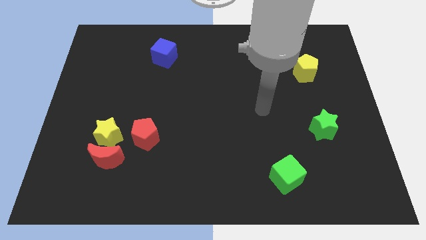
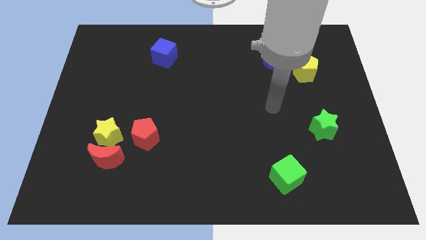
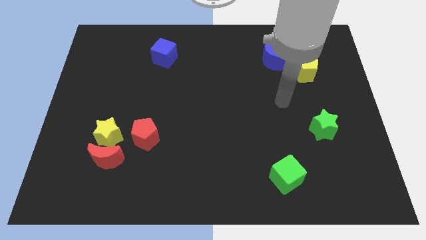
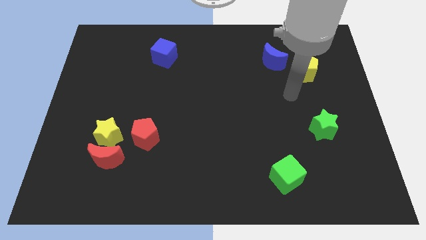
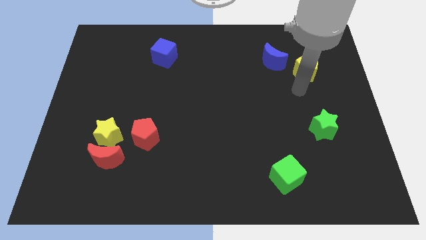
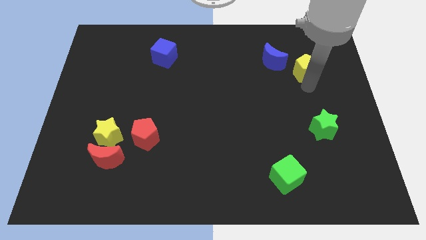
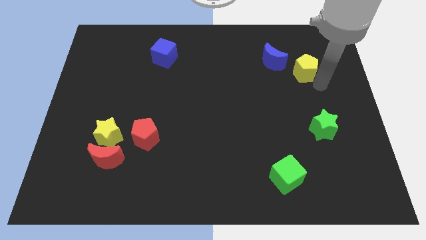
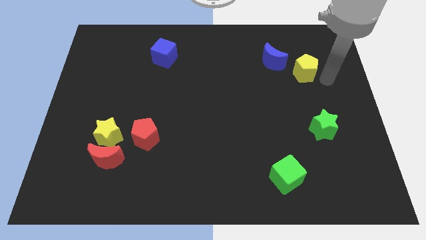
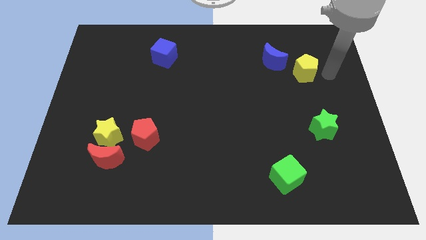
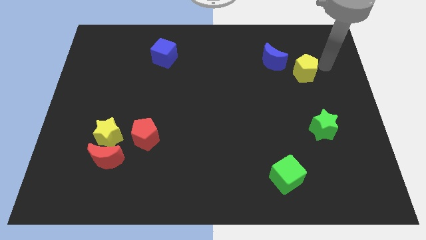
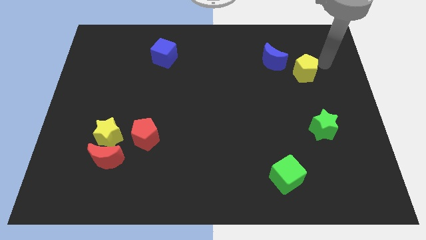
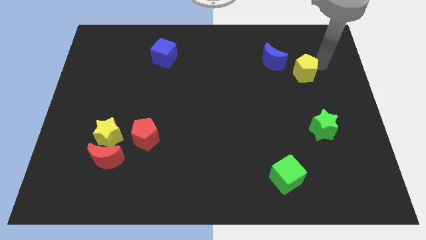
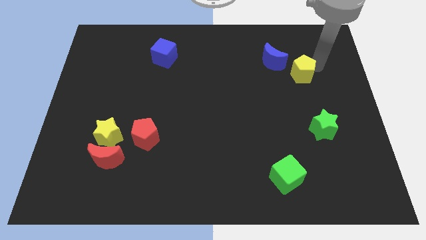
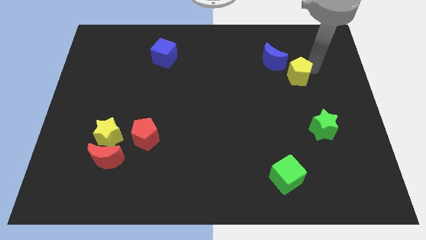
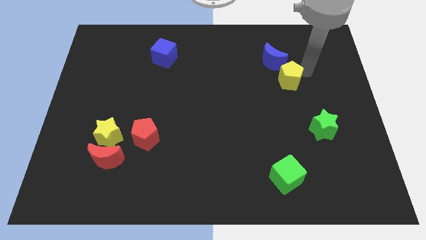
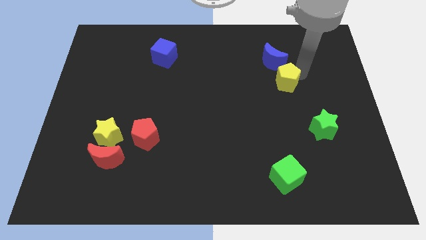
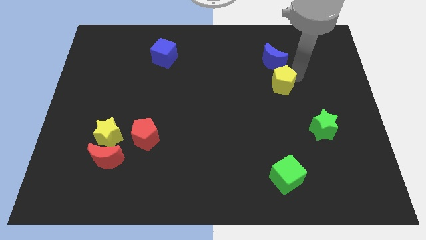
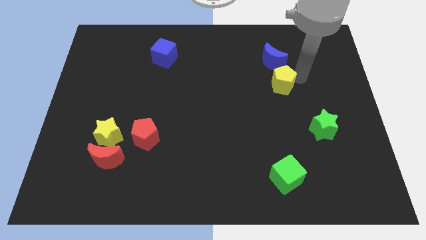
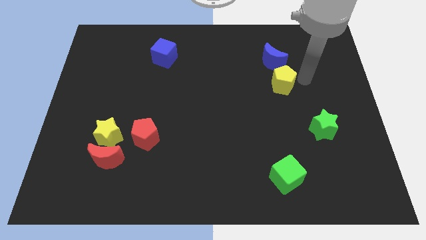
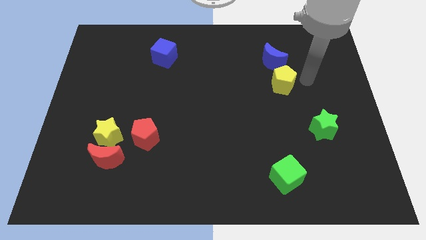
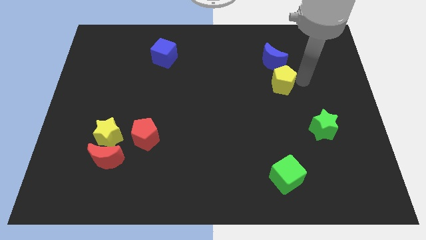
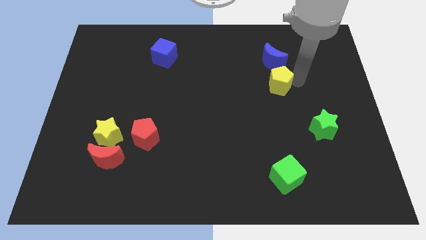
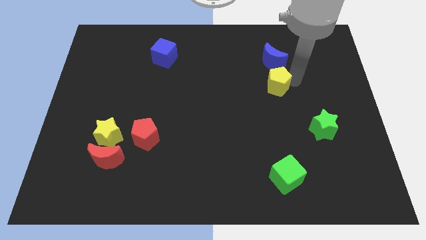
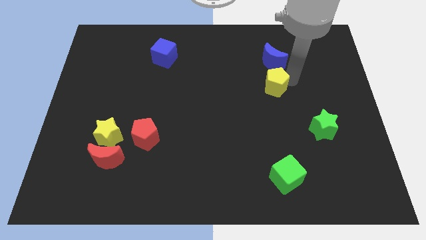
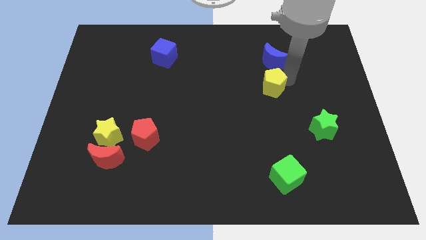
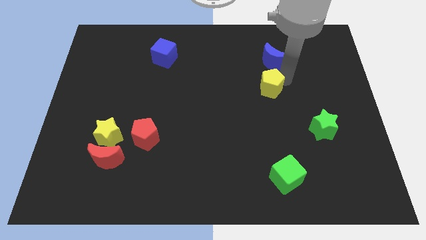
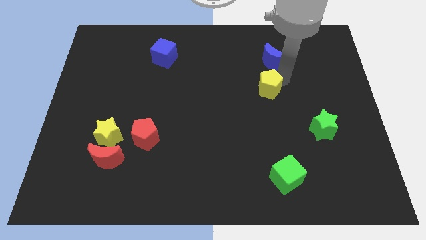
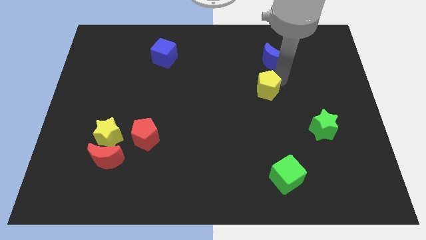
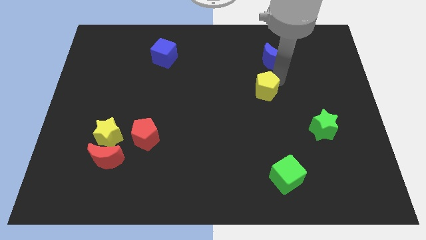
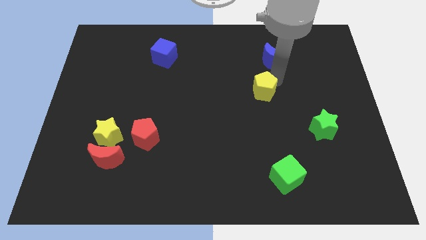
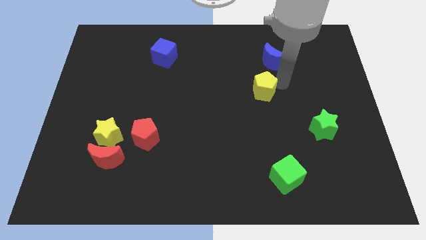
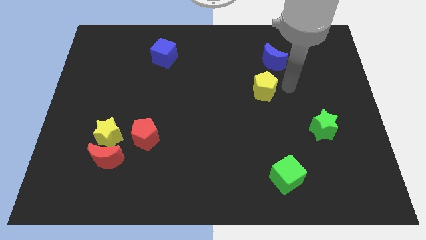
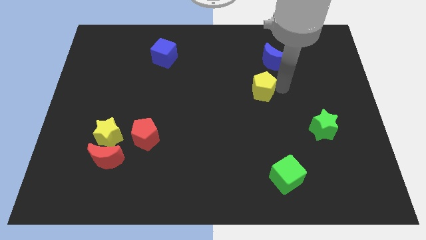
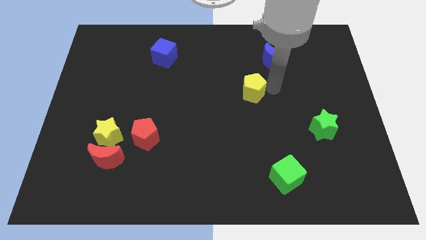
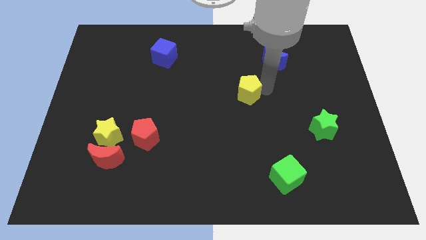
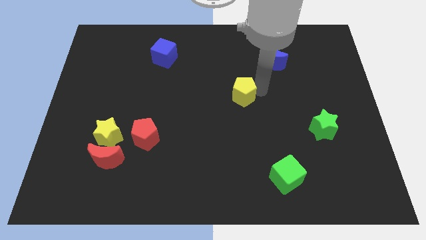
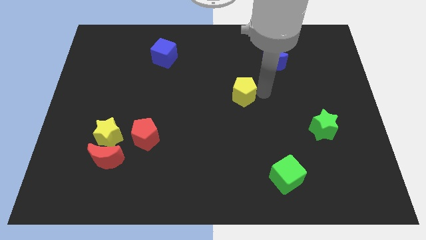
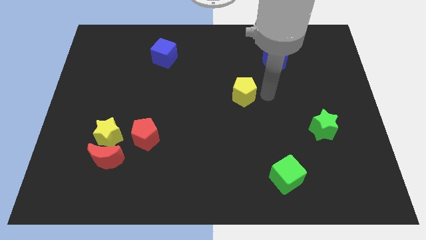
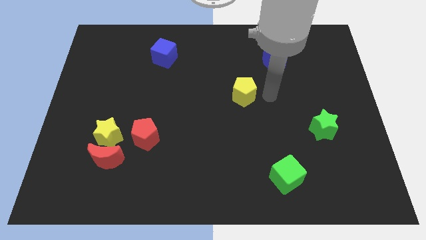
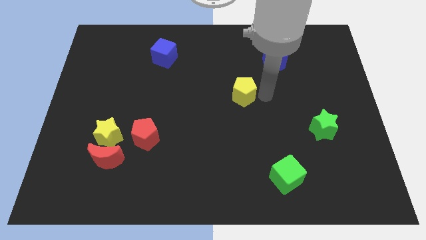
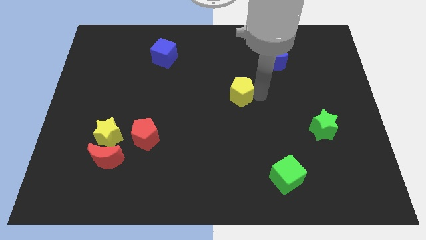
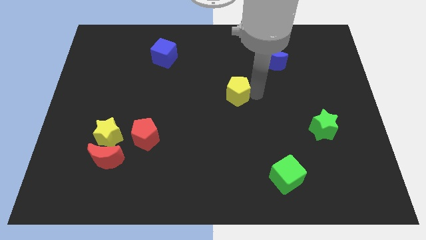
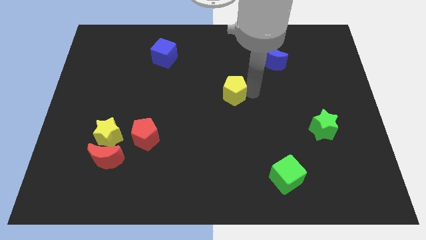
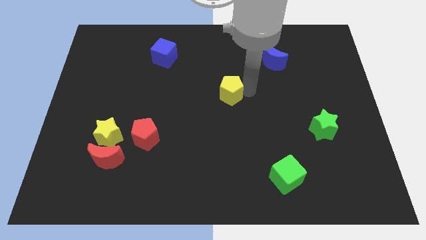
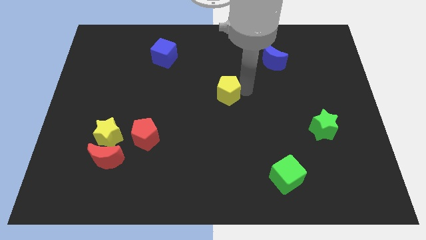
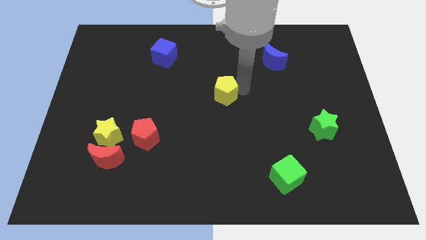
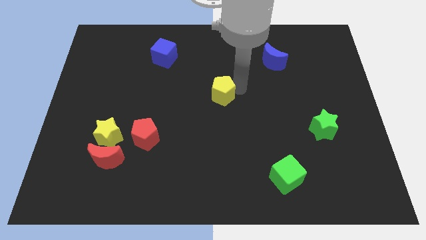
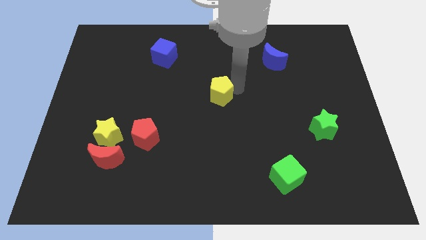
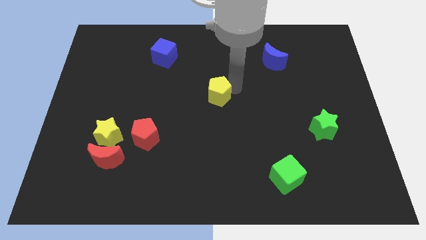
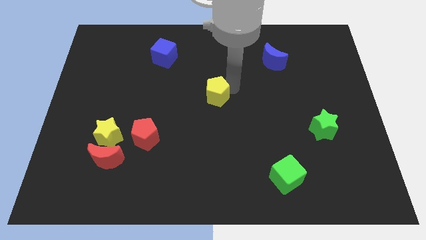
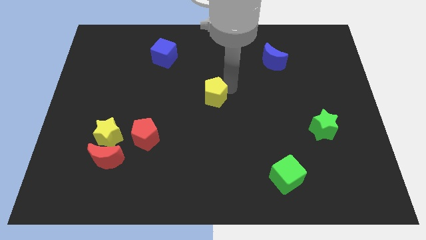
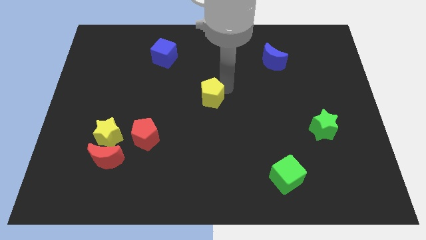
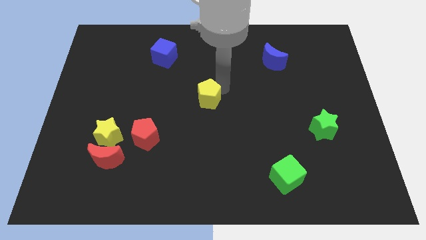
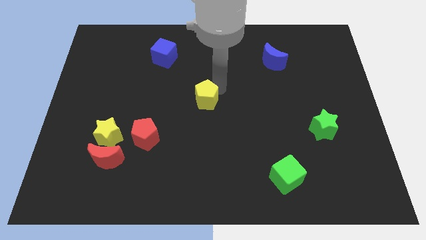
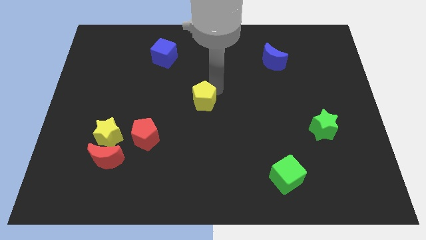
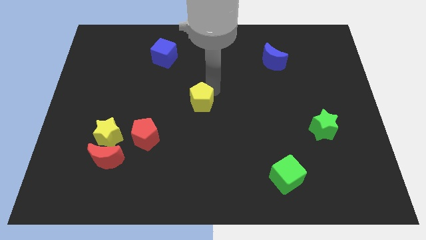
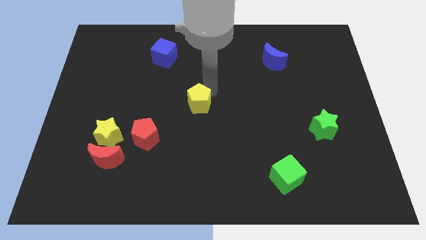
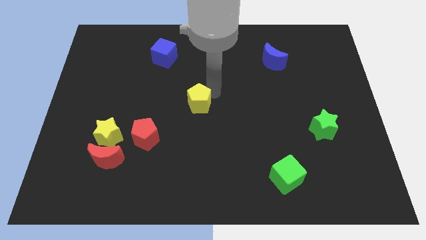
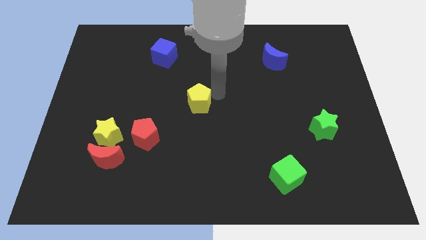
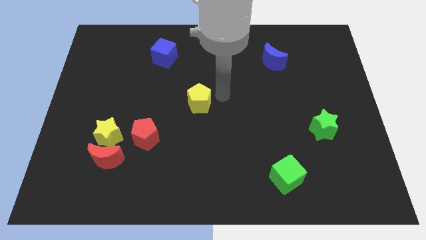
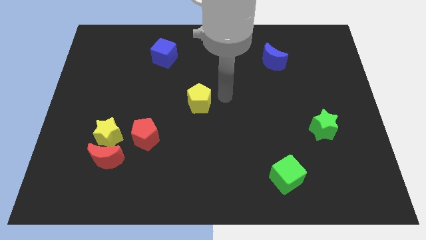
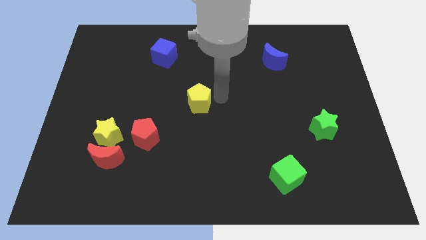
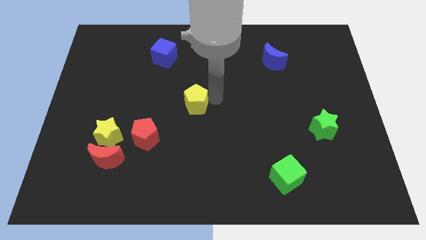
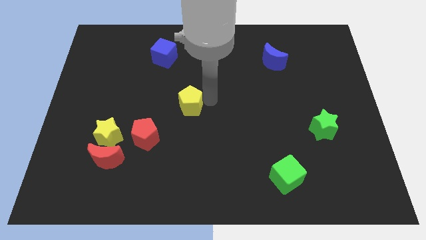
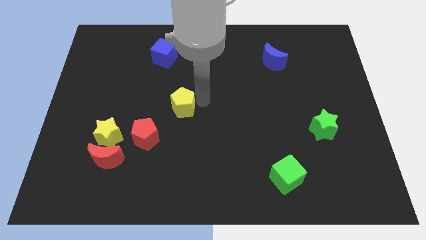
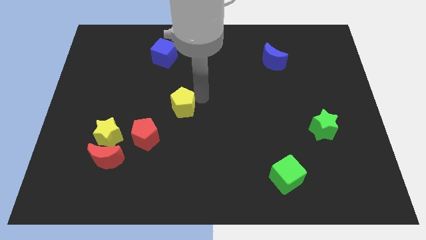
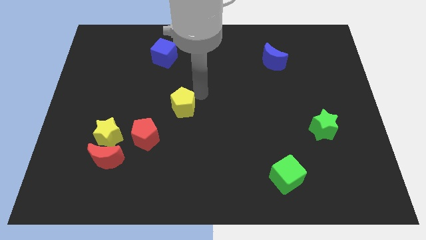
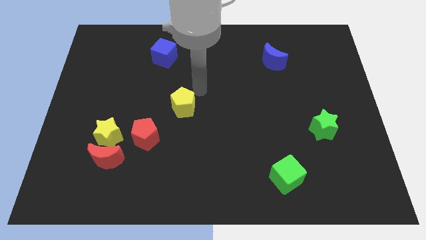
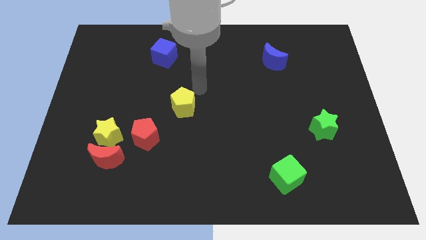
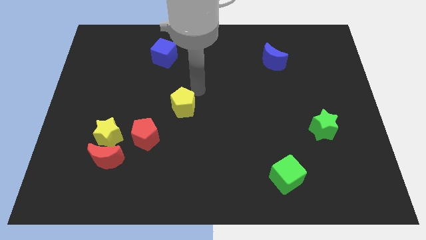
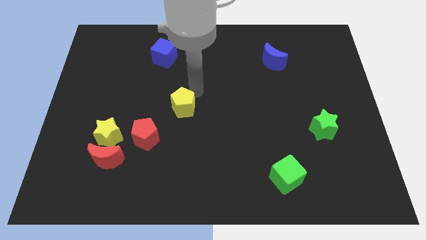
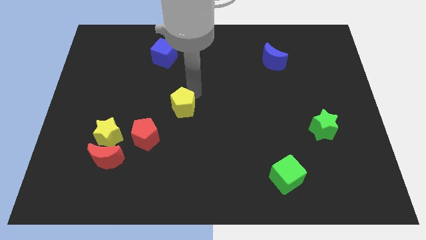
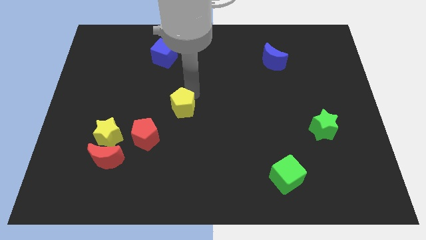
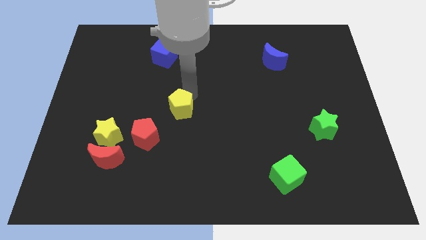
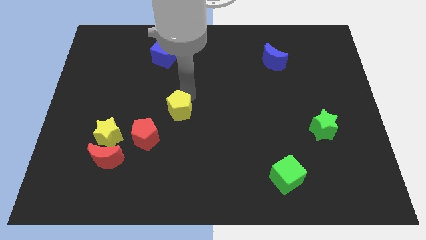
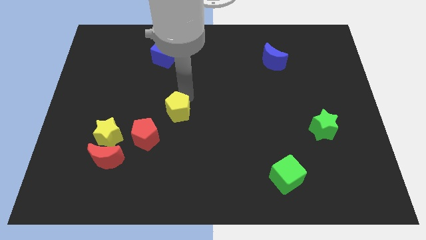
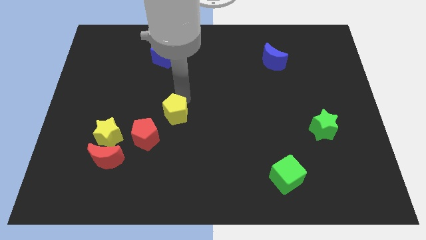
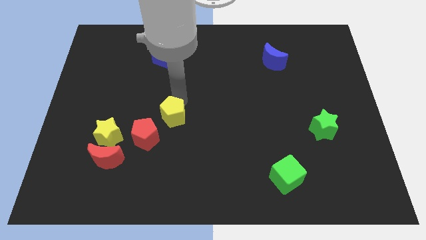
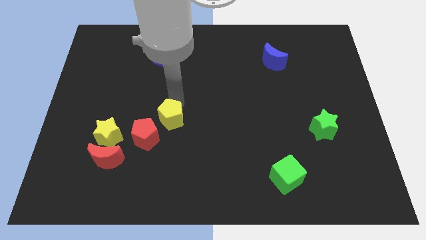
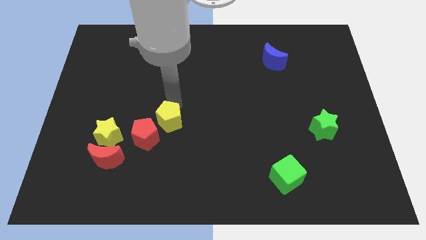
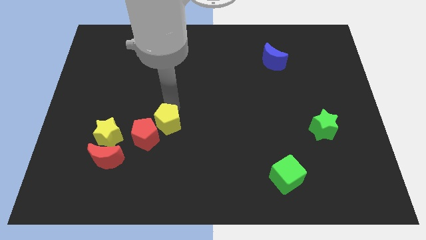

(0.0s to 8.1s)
move the yellow pentagon close to the red pentagon

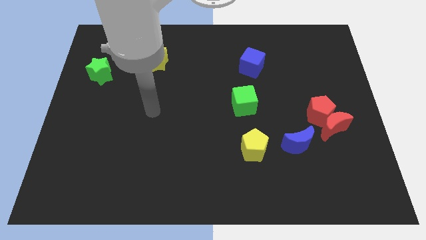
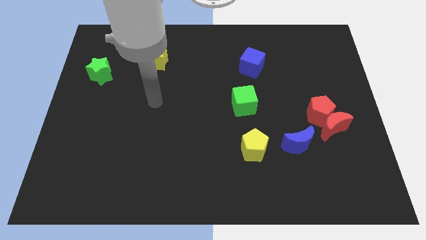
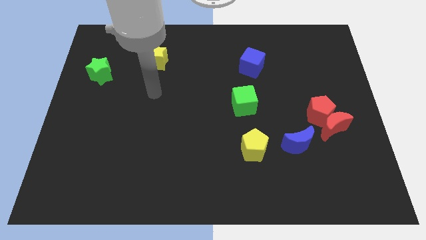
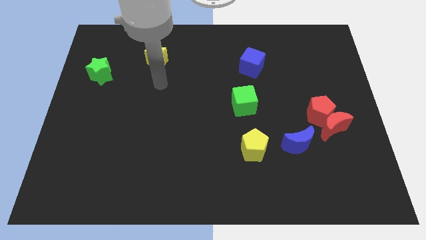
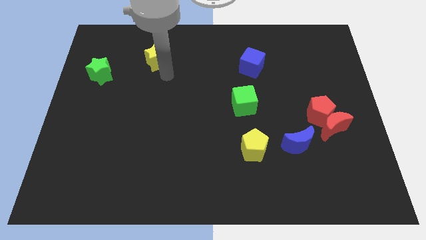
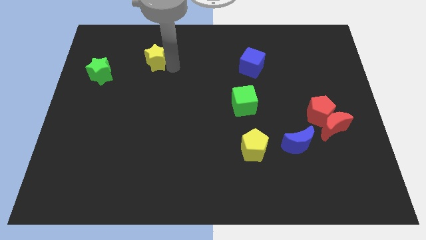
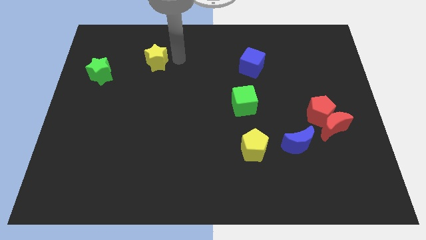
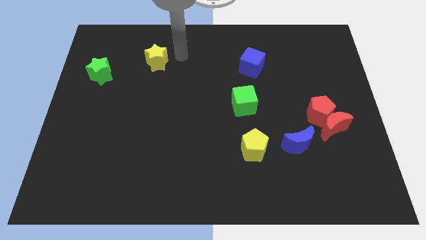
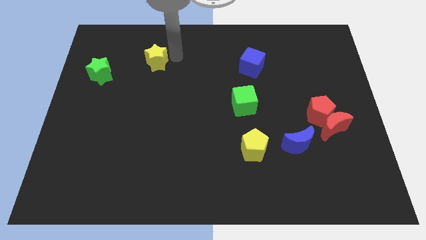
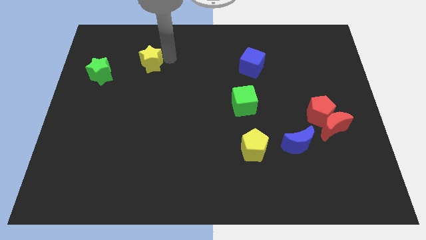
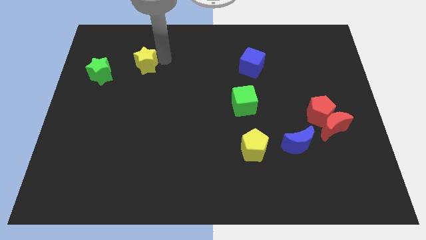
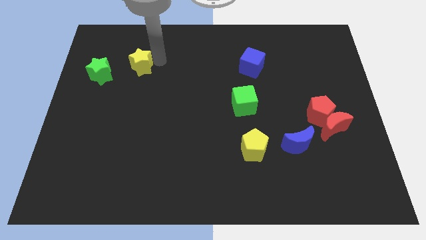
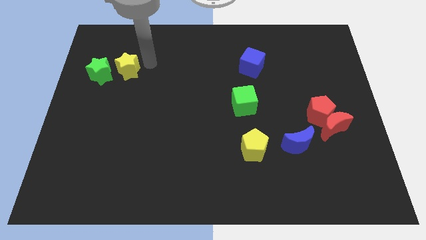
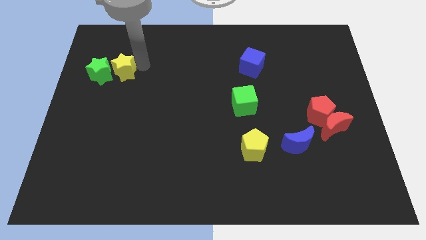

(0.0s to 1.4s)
put the yellow star next to the green star
